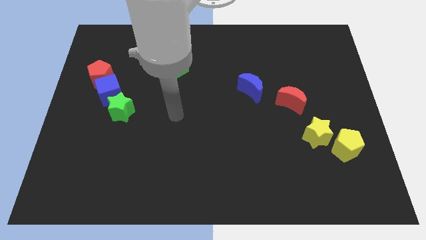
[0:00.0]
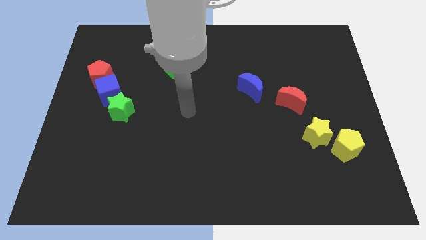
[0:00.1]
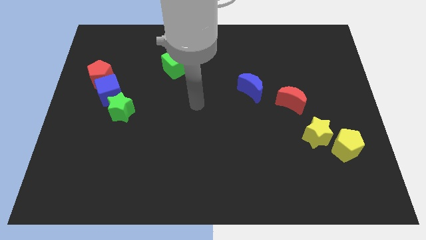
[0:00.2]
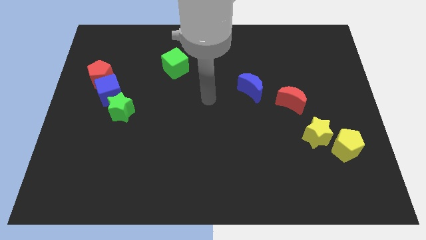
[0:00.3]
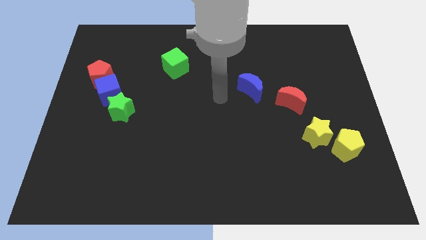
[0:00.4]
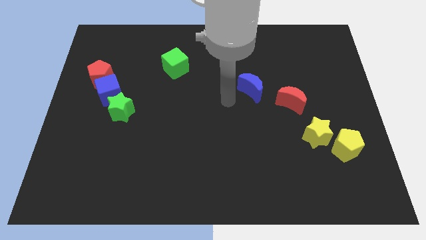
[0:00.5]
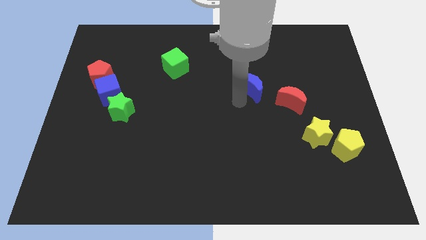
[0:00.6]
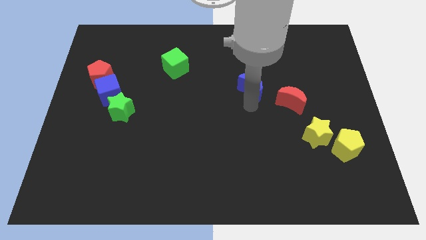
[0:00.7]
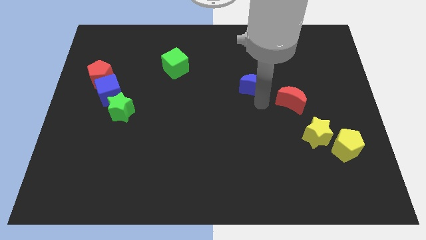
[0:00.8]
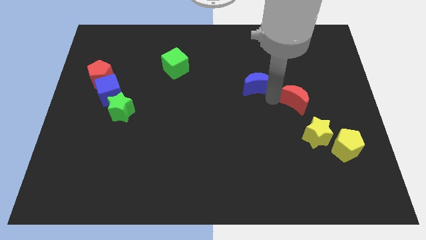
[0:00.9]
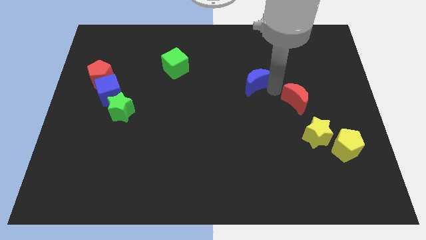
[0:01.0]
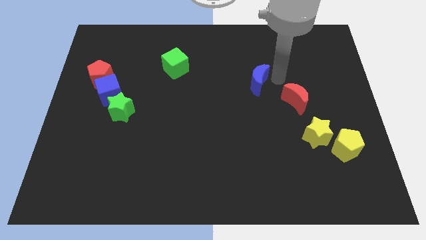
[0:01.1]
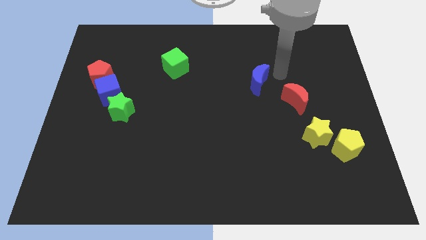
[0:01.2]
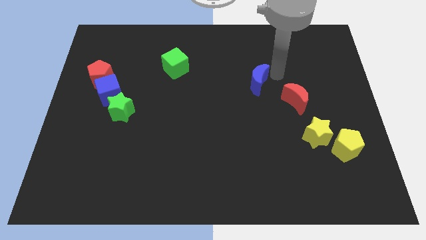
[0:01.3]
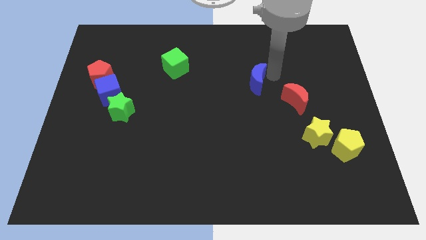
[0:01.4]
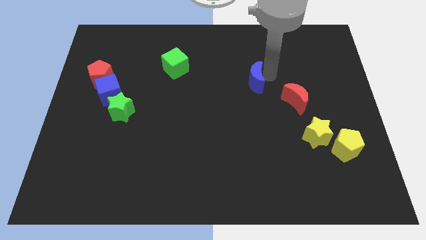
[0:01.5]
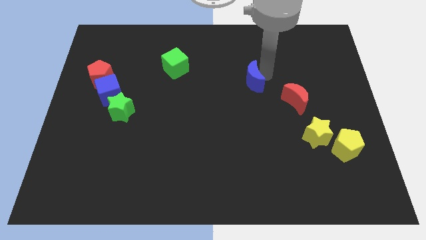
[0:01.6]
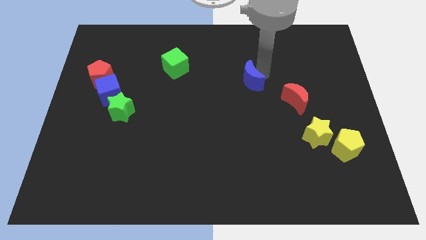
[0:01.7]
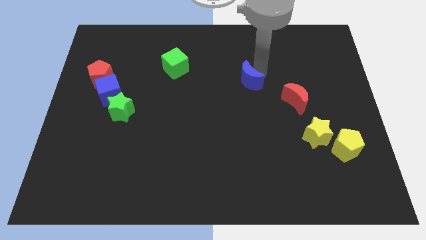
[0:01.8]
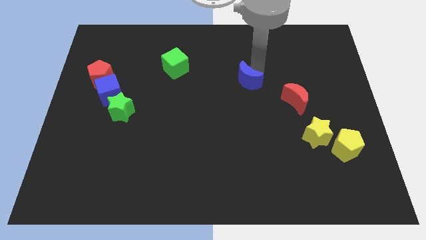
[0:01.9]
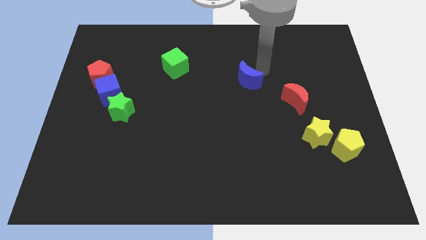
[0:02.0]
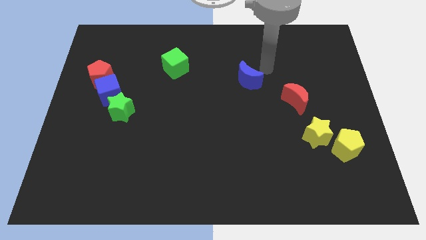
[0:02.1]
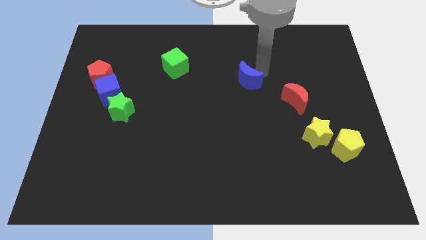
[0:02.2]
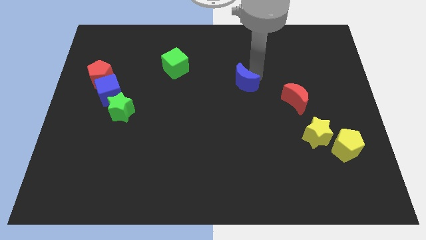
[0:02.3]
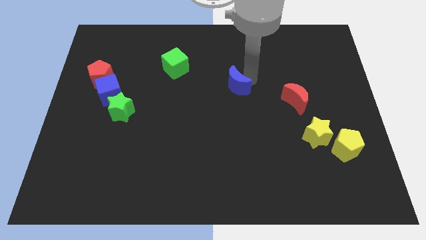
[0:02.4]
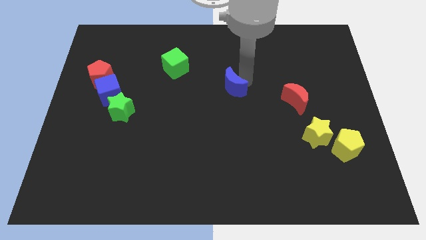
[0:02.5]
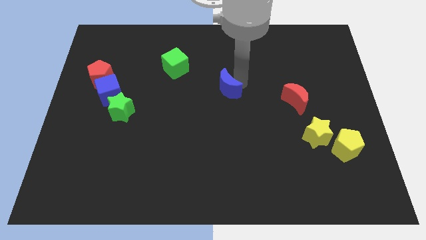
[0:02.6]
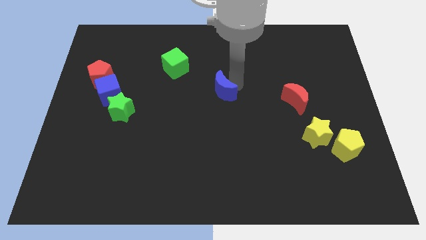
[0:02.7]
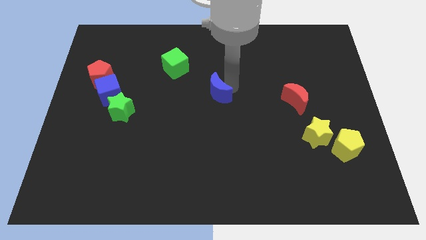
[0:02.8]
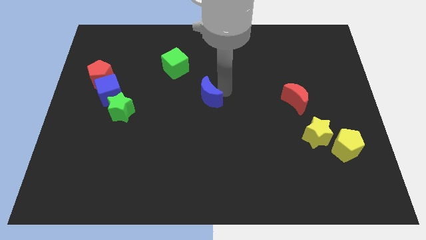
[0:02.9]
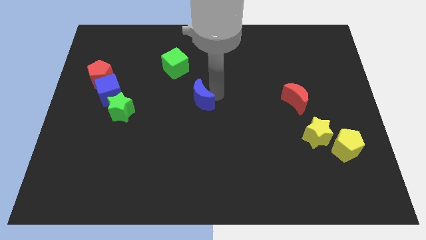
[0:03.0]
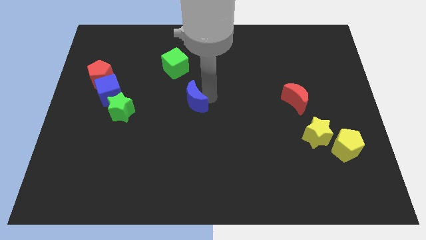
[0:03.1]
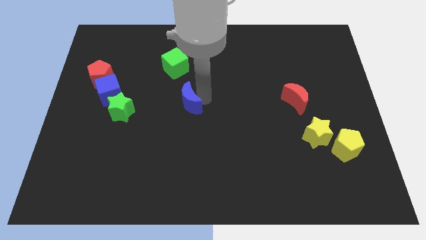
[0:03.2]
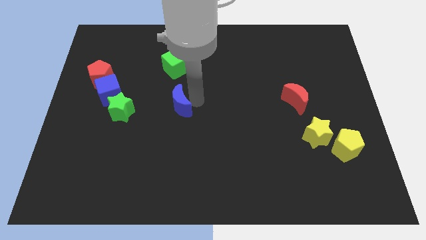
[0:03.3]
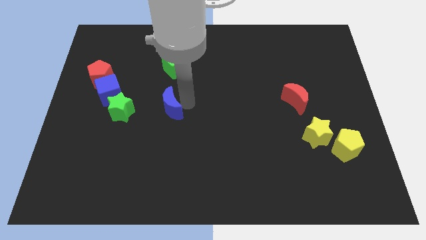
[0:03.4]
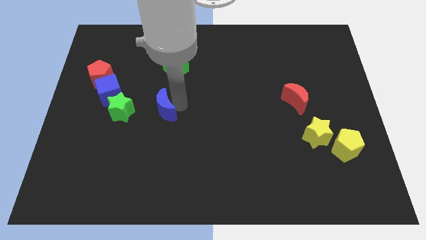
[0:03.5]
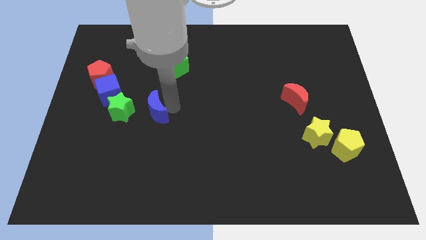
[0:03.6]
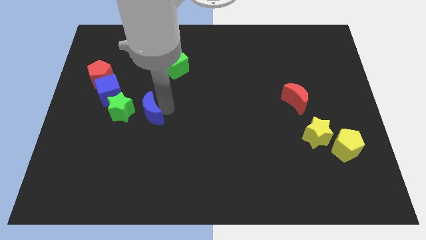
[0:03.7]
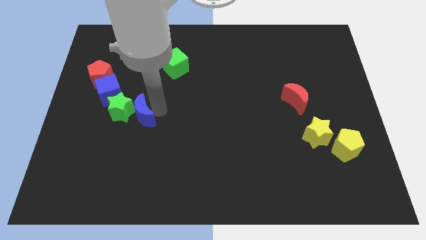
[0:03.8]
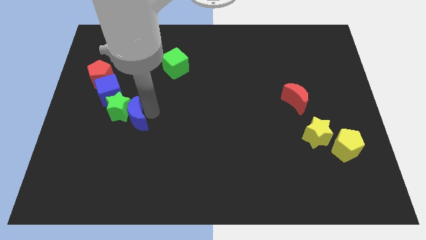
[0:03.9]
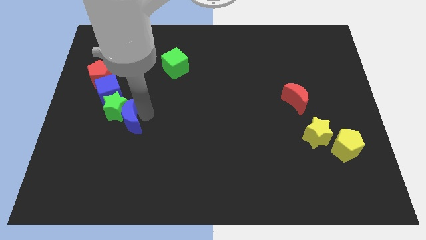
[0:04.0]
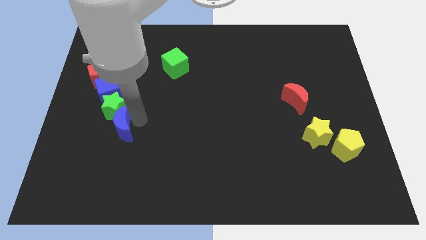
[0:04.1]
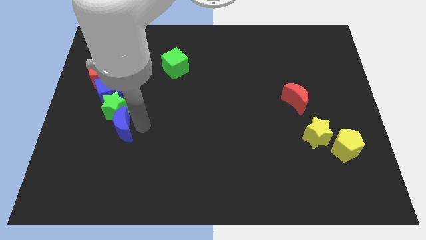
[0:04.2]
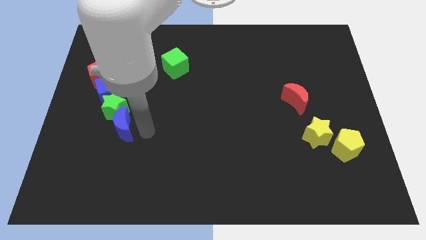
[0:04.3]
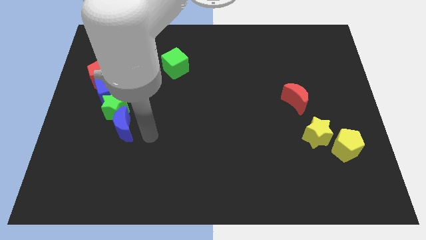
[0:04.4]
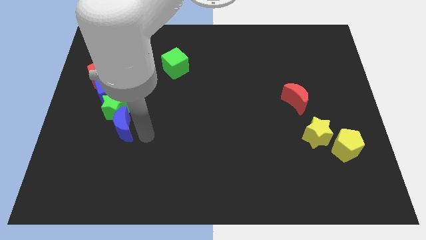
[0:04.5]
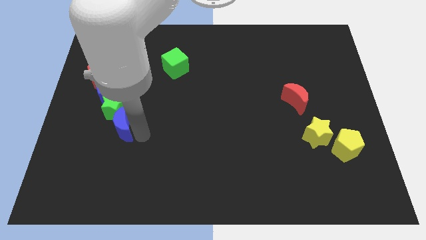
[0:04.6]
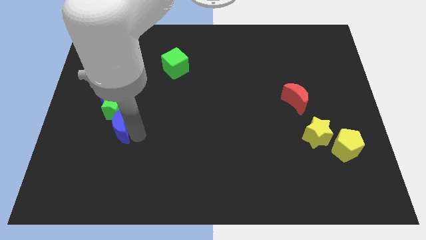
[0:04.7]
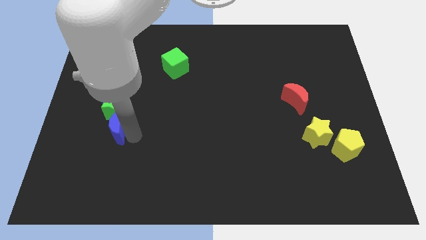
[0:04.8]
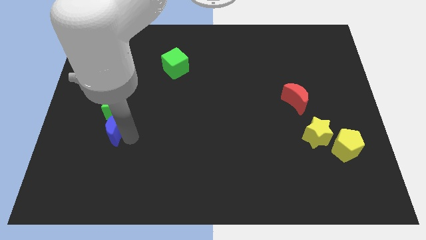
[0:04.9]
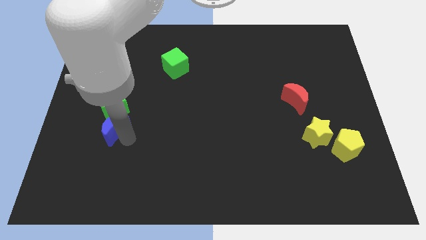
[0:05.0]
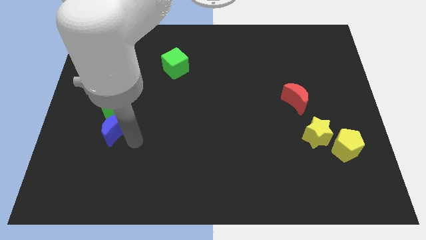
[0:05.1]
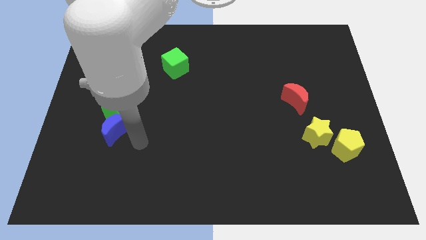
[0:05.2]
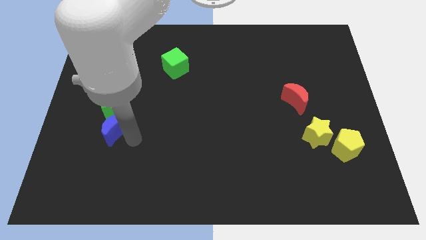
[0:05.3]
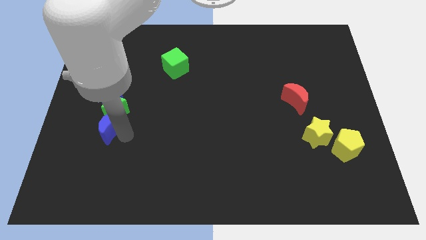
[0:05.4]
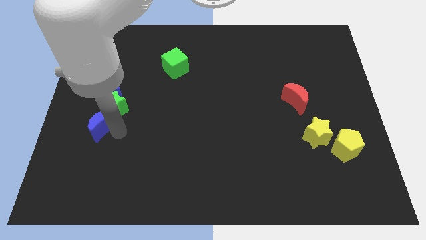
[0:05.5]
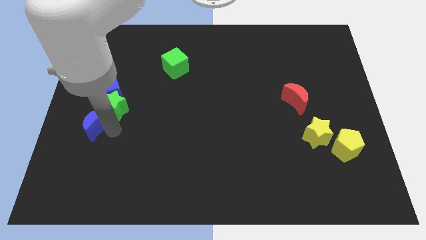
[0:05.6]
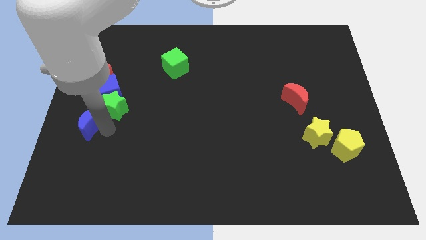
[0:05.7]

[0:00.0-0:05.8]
push the blue moon to the left side of the board
